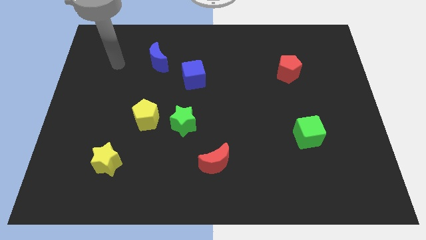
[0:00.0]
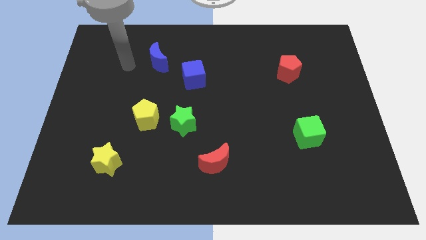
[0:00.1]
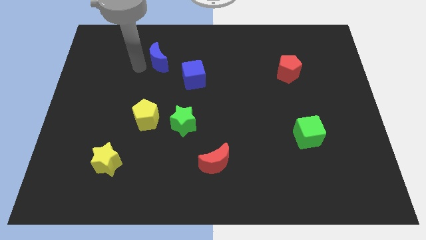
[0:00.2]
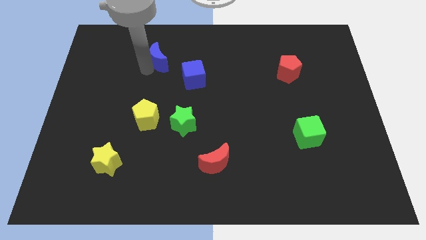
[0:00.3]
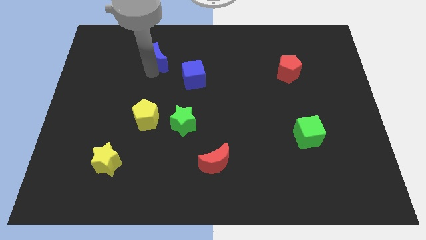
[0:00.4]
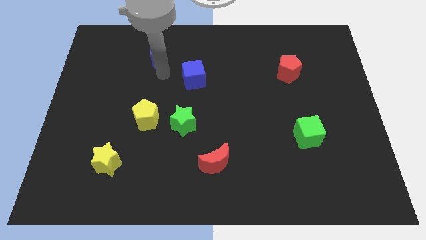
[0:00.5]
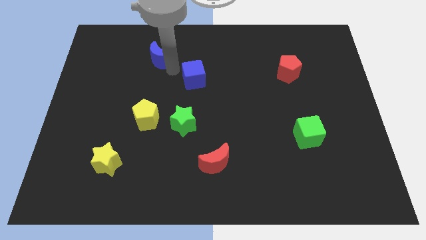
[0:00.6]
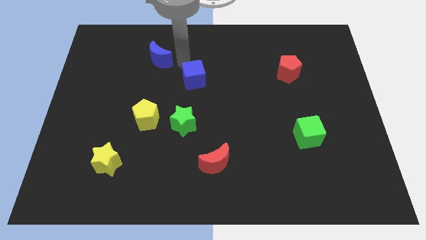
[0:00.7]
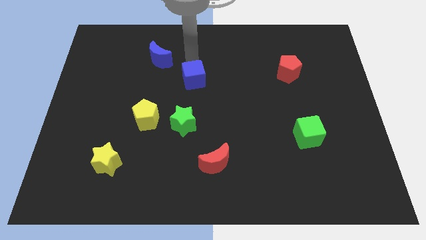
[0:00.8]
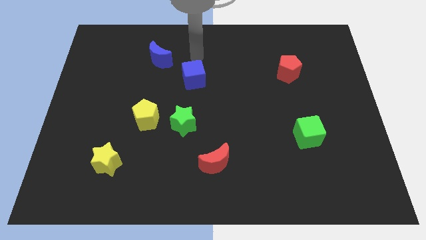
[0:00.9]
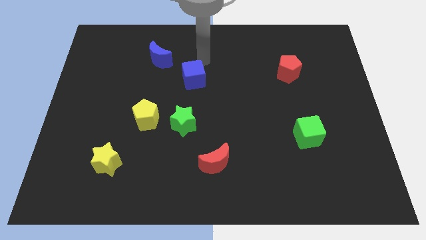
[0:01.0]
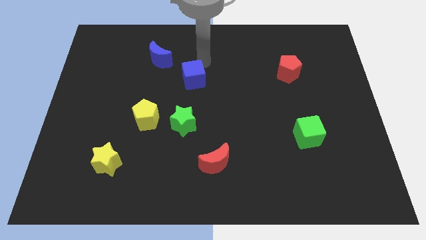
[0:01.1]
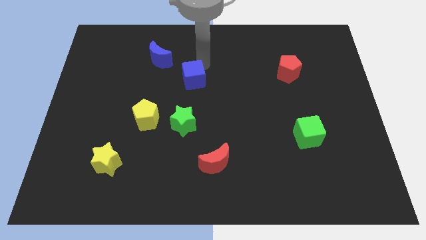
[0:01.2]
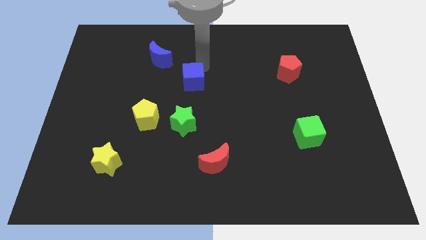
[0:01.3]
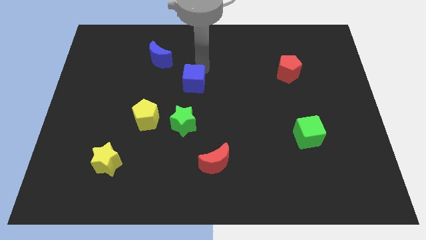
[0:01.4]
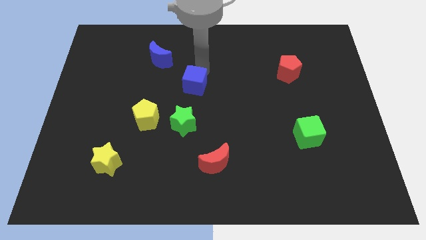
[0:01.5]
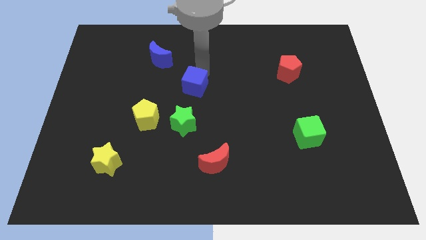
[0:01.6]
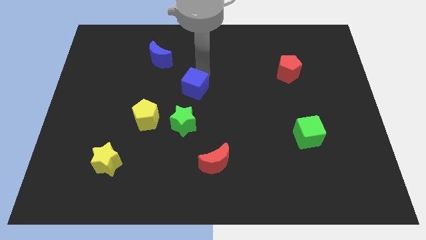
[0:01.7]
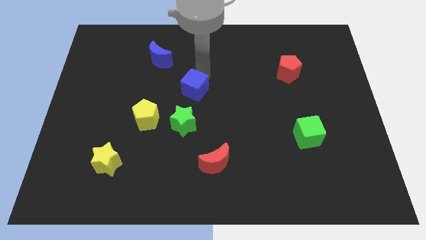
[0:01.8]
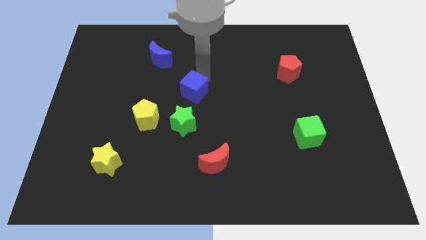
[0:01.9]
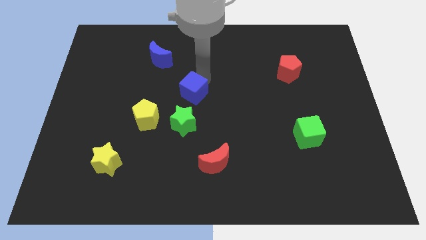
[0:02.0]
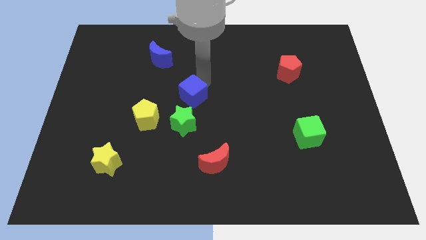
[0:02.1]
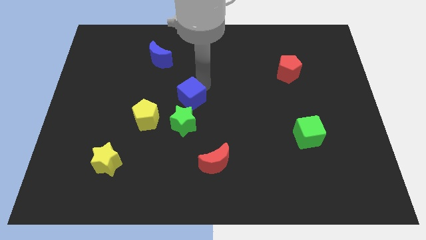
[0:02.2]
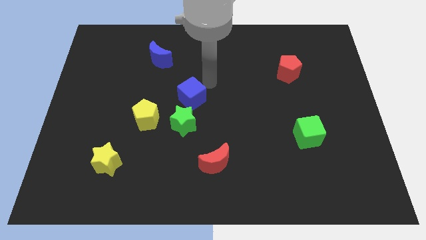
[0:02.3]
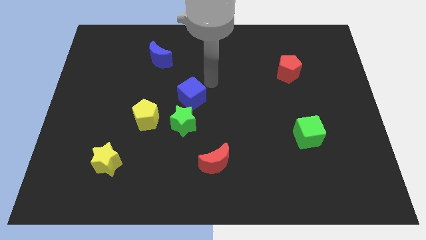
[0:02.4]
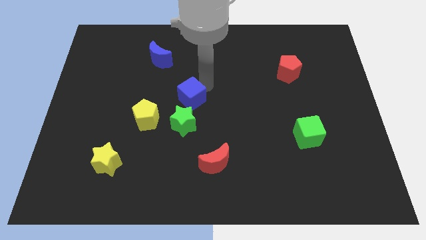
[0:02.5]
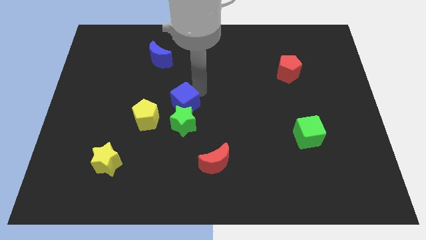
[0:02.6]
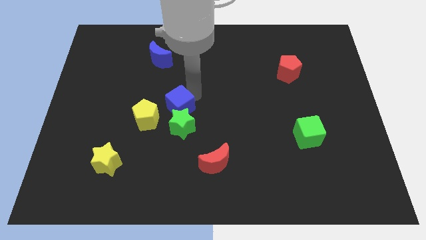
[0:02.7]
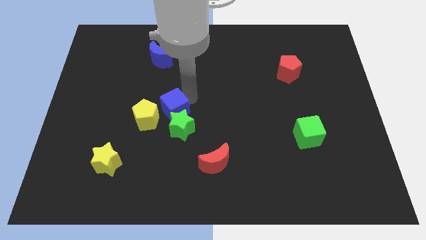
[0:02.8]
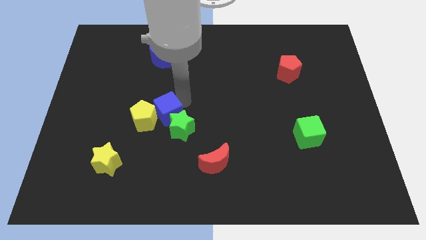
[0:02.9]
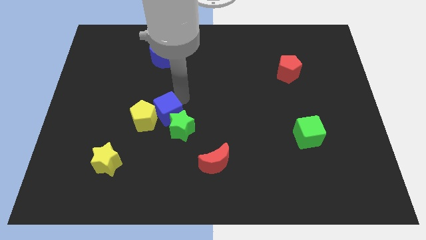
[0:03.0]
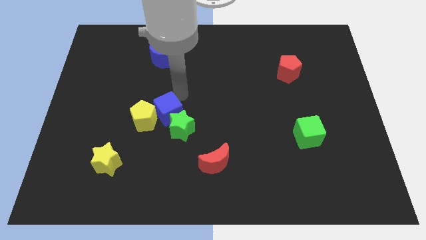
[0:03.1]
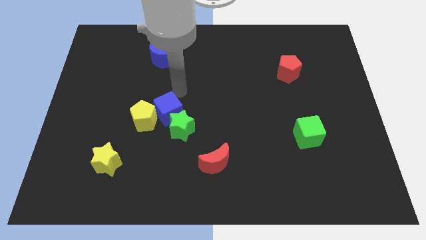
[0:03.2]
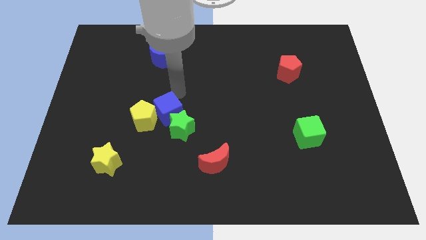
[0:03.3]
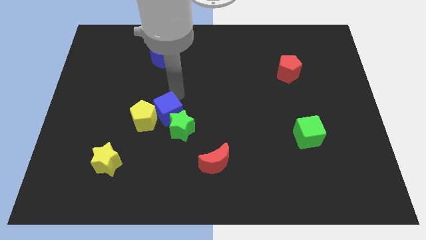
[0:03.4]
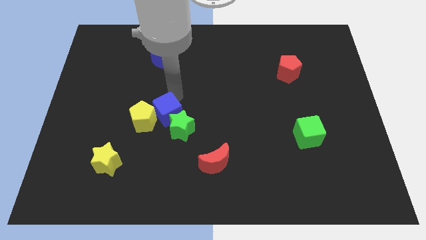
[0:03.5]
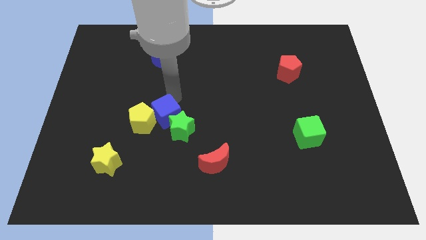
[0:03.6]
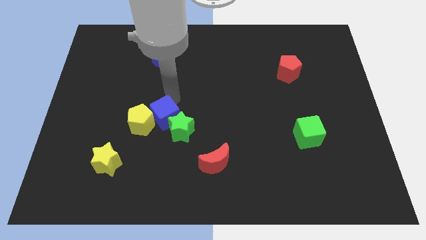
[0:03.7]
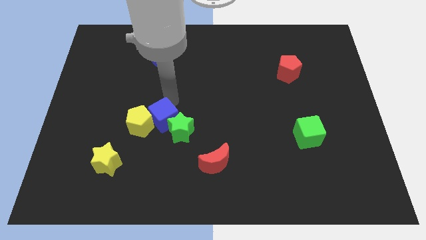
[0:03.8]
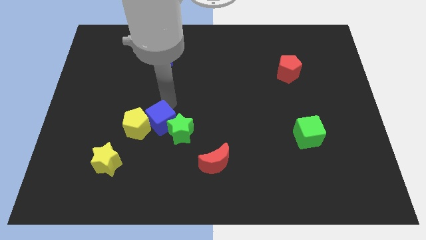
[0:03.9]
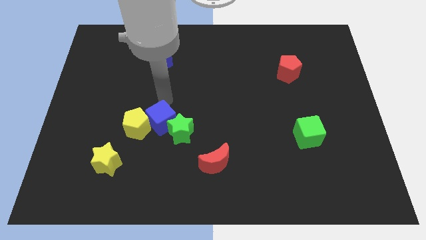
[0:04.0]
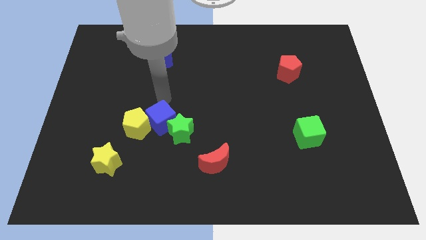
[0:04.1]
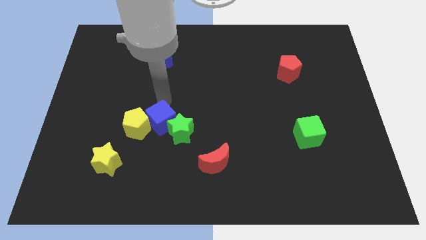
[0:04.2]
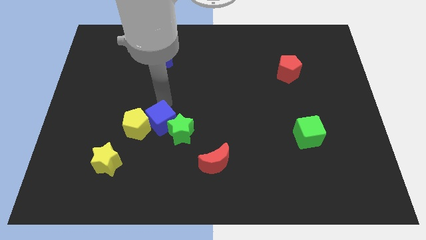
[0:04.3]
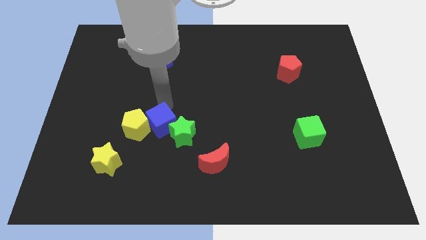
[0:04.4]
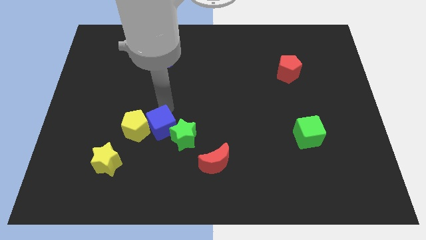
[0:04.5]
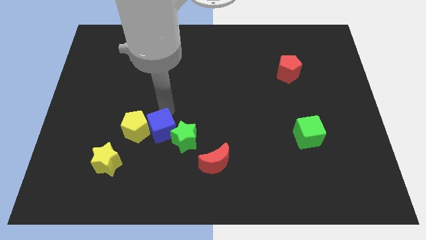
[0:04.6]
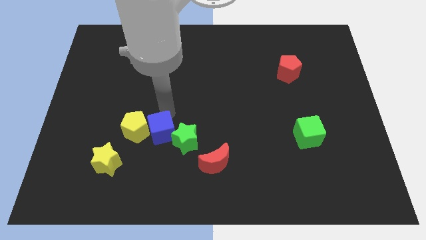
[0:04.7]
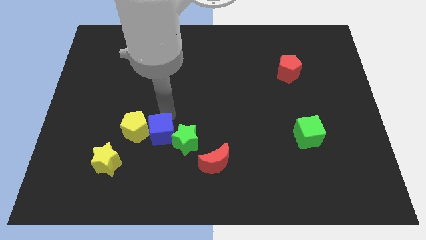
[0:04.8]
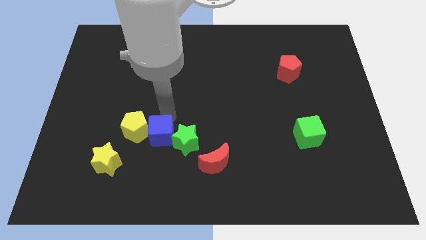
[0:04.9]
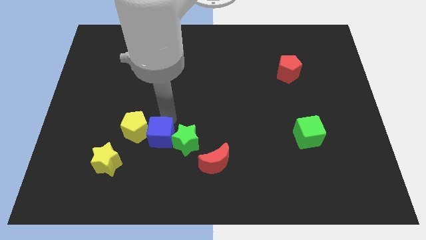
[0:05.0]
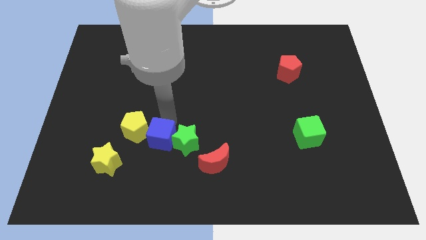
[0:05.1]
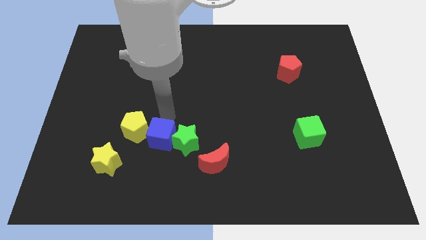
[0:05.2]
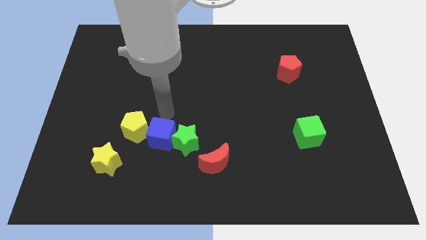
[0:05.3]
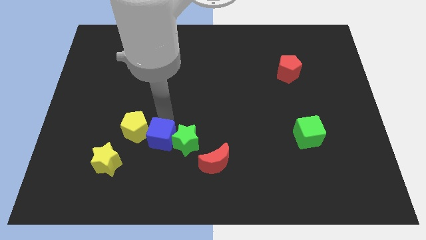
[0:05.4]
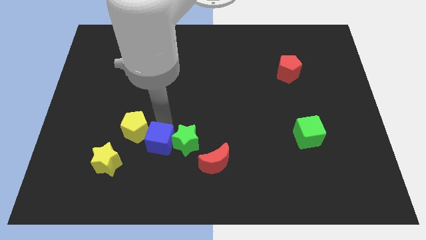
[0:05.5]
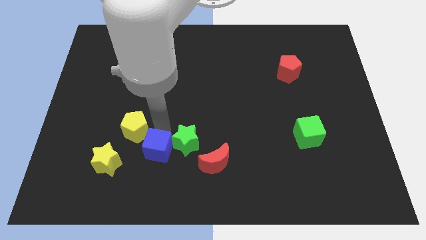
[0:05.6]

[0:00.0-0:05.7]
put the blue cube to the right side of the yellow star

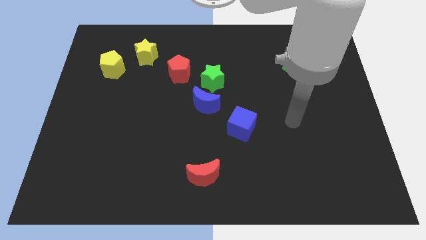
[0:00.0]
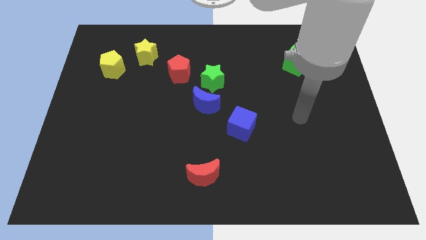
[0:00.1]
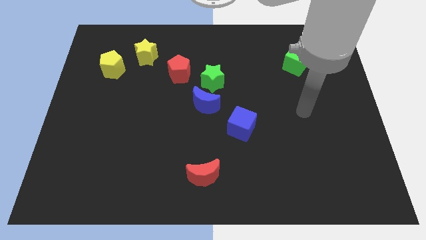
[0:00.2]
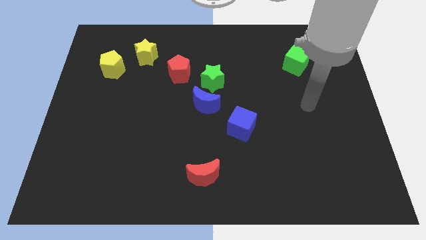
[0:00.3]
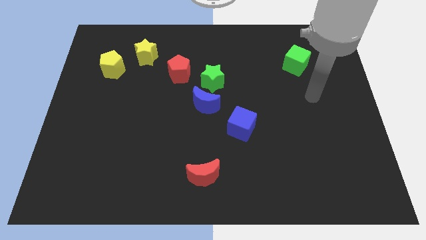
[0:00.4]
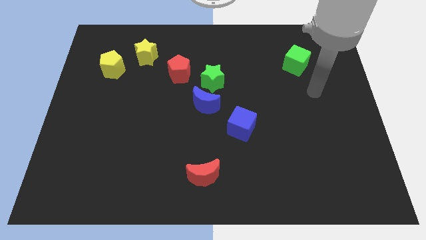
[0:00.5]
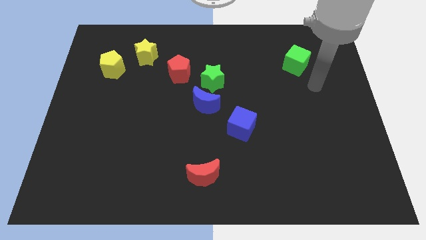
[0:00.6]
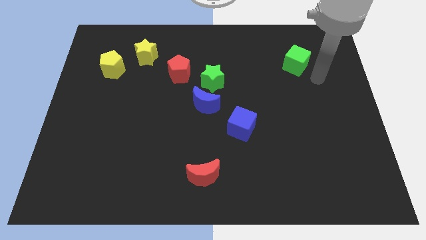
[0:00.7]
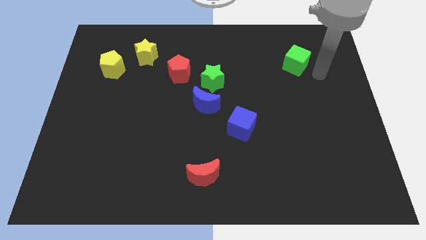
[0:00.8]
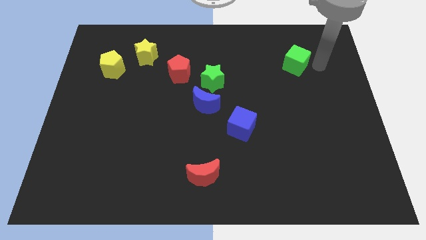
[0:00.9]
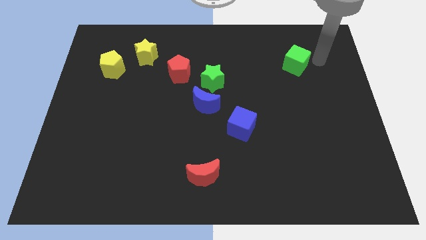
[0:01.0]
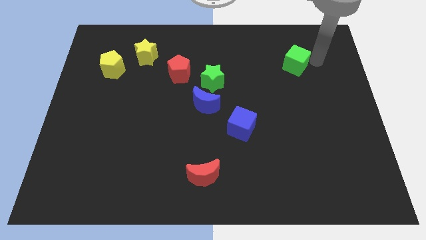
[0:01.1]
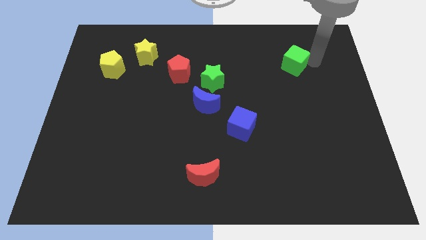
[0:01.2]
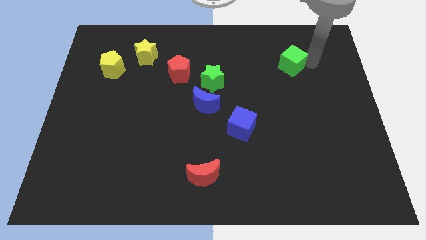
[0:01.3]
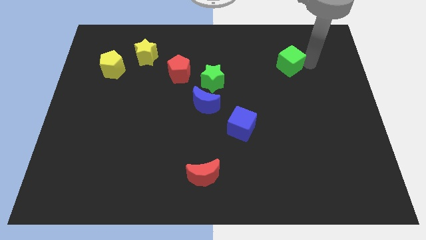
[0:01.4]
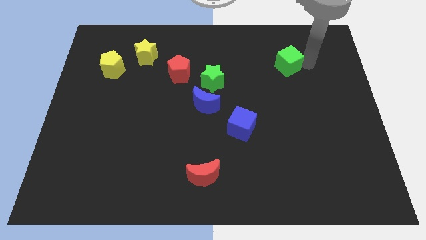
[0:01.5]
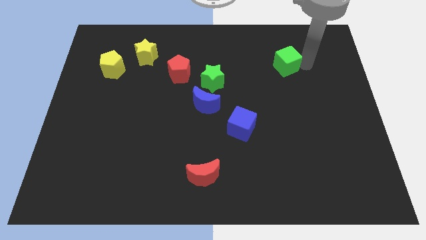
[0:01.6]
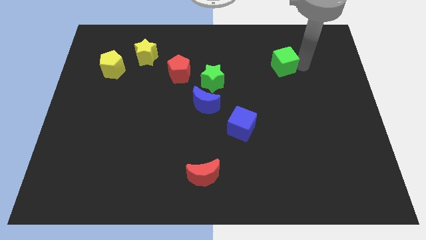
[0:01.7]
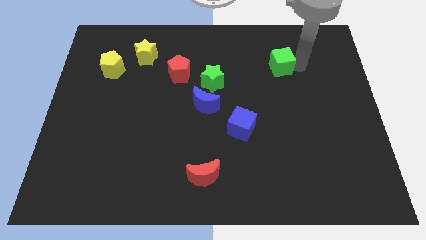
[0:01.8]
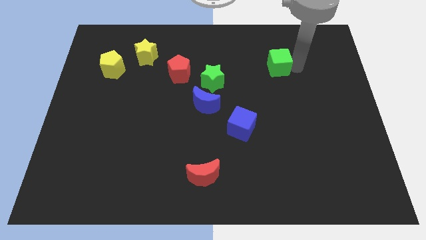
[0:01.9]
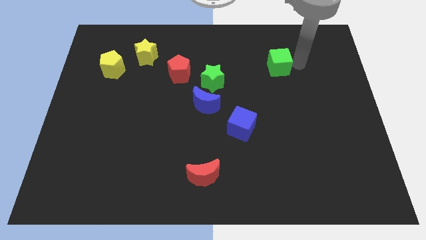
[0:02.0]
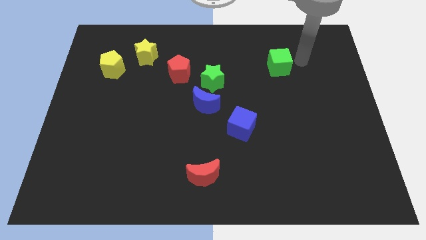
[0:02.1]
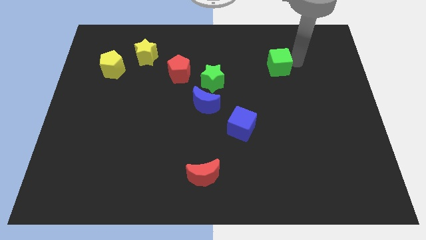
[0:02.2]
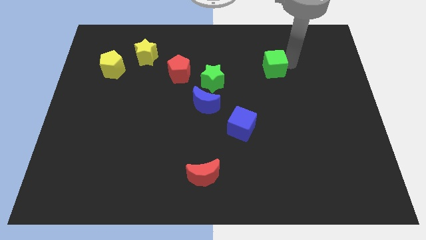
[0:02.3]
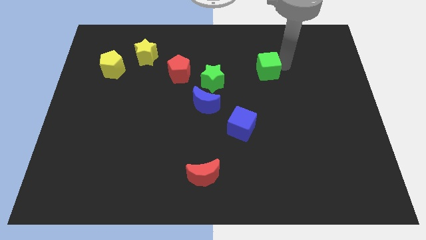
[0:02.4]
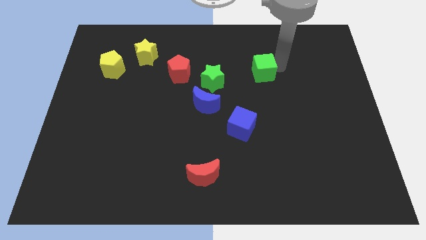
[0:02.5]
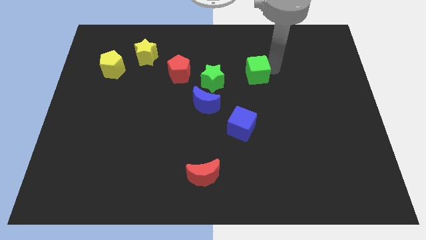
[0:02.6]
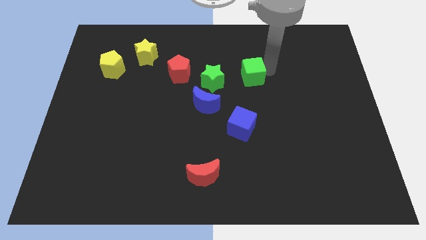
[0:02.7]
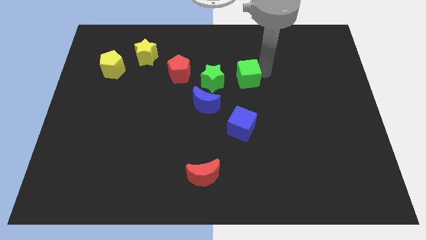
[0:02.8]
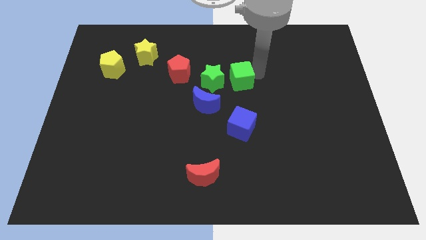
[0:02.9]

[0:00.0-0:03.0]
put the green cube diagonally up and to the right of the blue moon
